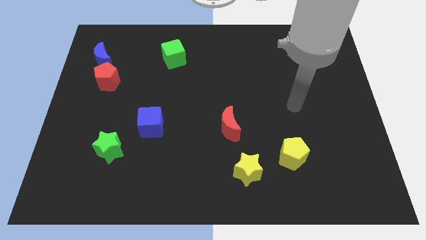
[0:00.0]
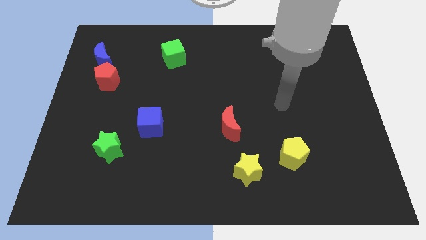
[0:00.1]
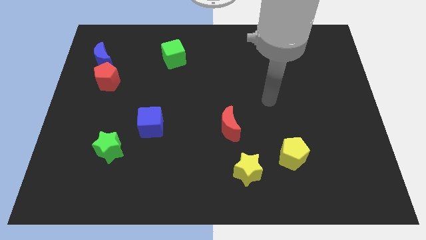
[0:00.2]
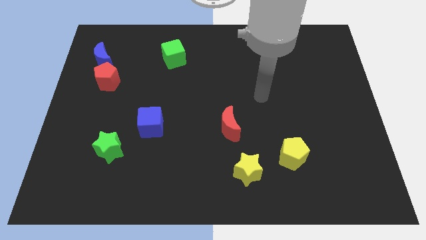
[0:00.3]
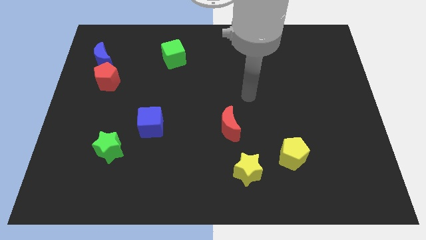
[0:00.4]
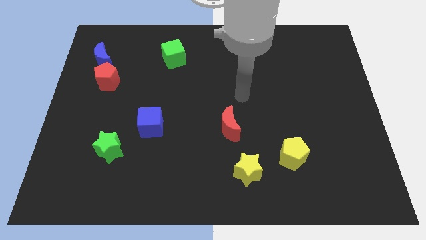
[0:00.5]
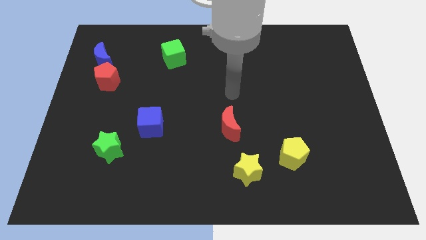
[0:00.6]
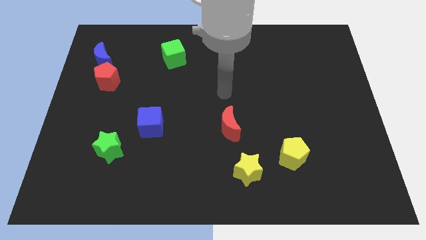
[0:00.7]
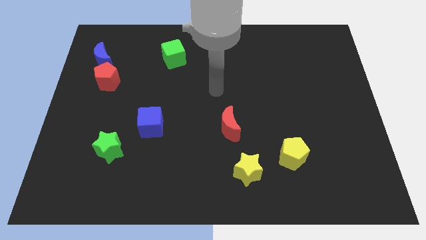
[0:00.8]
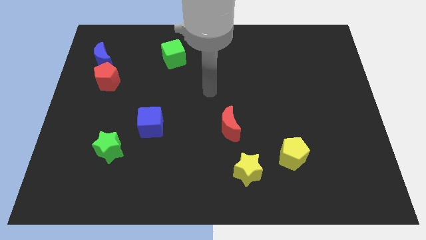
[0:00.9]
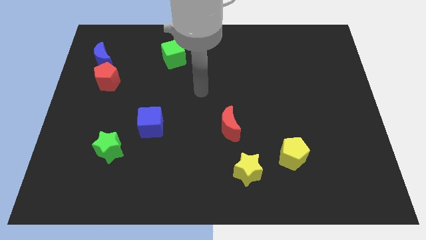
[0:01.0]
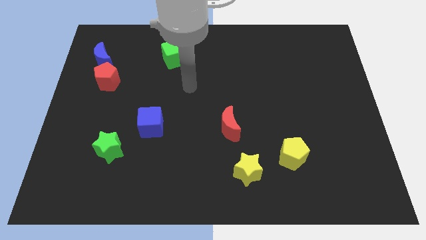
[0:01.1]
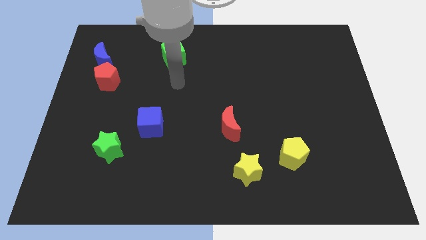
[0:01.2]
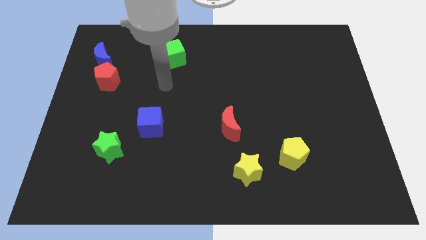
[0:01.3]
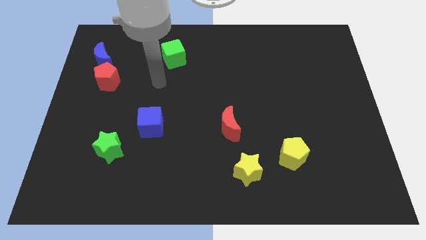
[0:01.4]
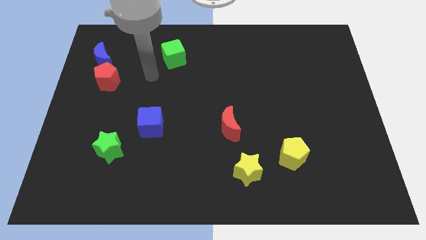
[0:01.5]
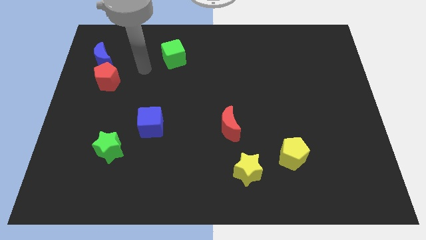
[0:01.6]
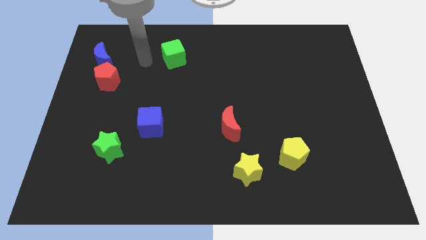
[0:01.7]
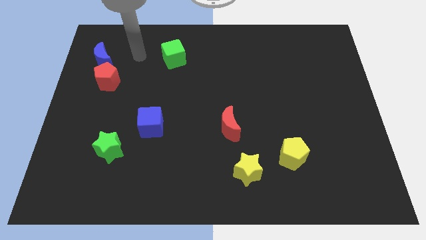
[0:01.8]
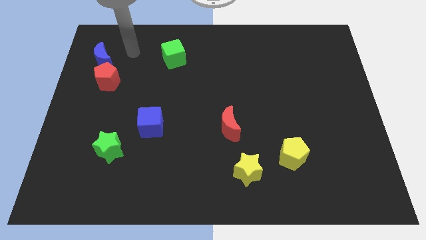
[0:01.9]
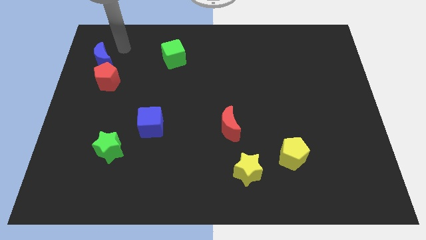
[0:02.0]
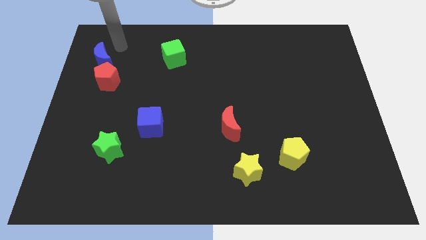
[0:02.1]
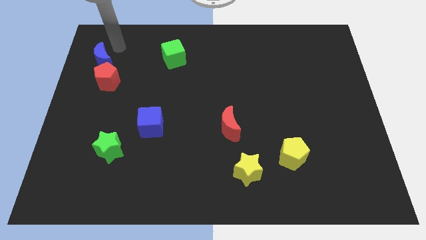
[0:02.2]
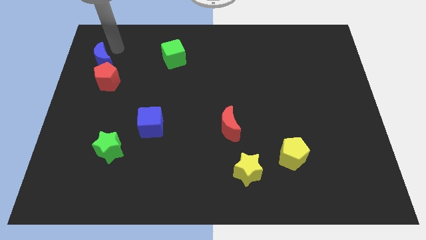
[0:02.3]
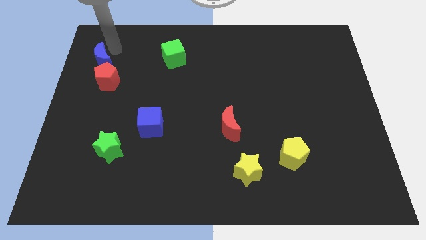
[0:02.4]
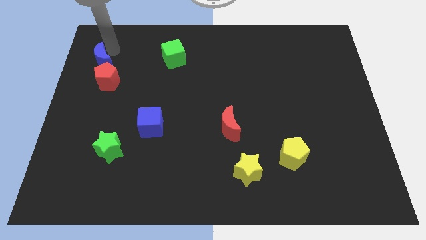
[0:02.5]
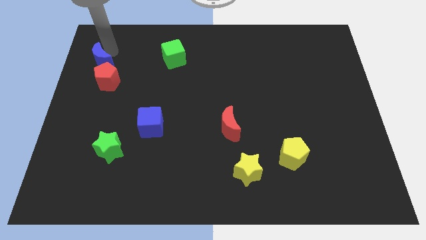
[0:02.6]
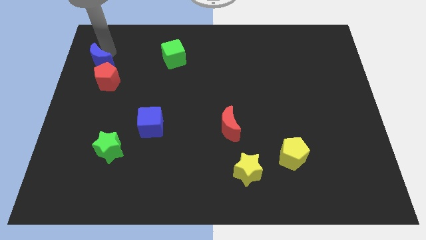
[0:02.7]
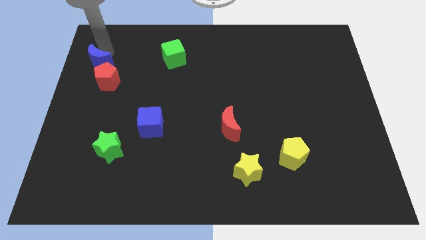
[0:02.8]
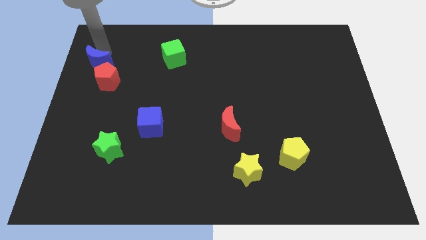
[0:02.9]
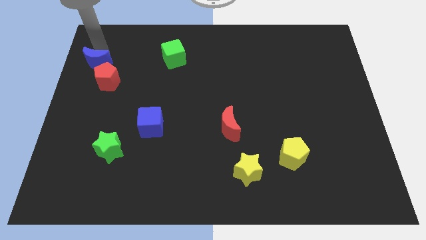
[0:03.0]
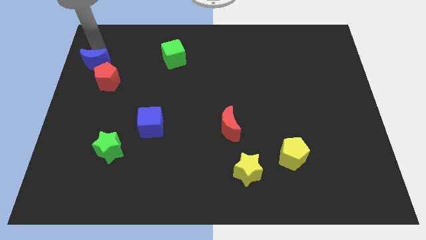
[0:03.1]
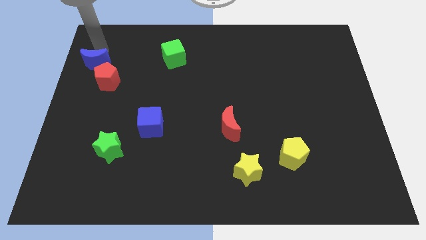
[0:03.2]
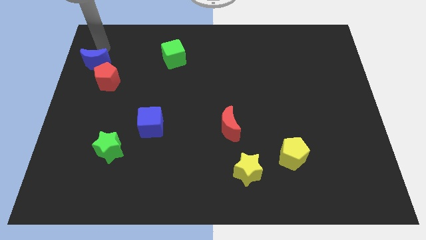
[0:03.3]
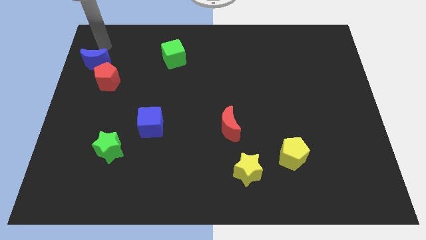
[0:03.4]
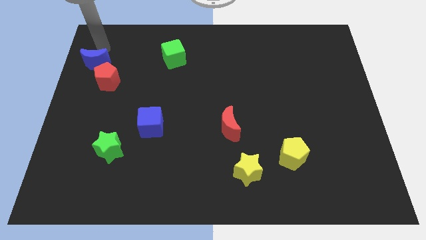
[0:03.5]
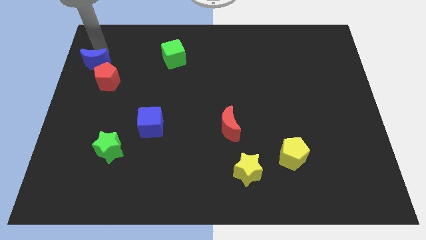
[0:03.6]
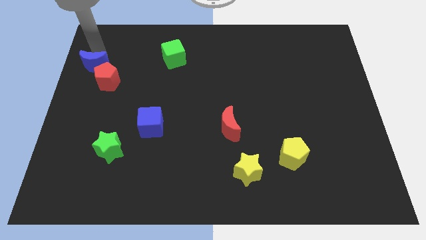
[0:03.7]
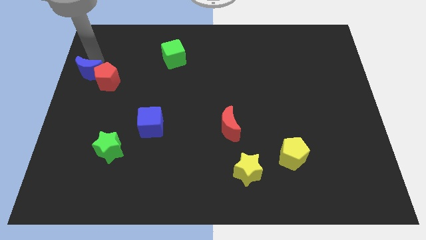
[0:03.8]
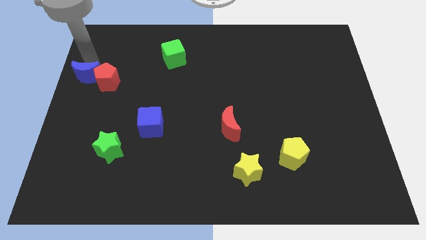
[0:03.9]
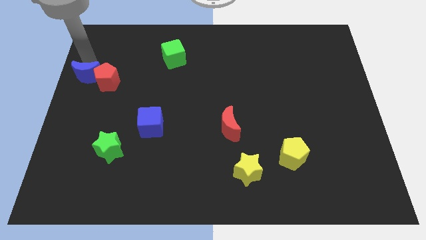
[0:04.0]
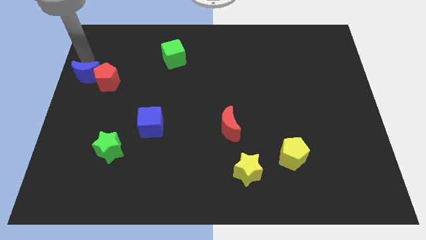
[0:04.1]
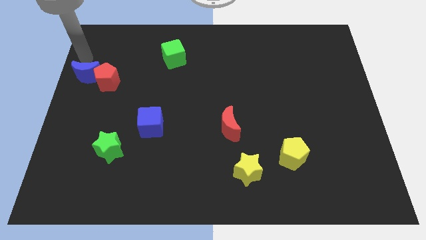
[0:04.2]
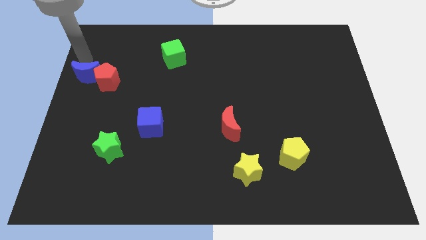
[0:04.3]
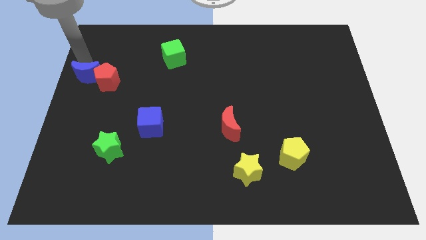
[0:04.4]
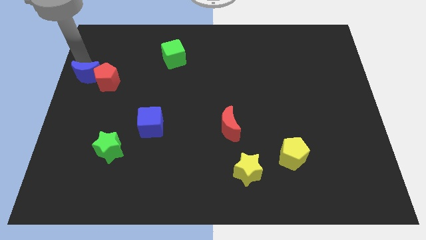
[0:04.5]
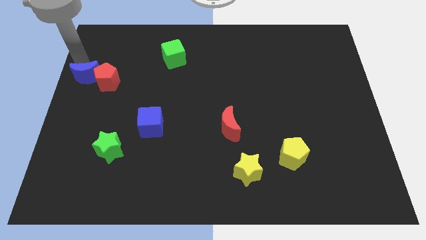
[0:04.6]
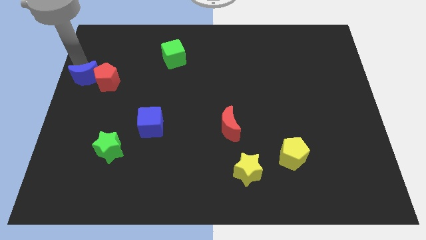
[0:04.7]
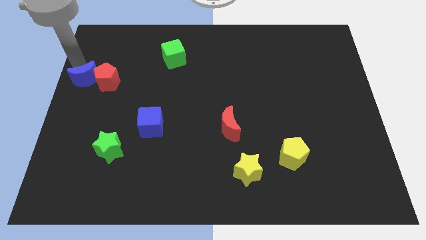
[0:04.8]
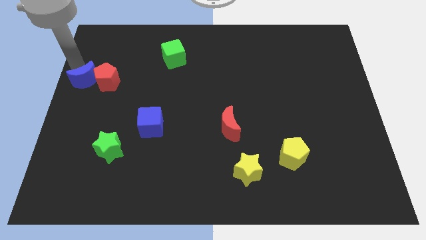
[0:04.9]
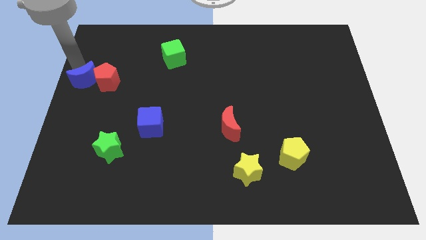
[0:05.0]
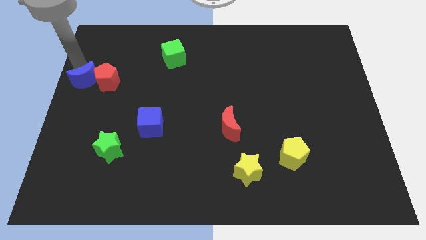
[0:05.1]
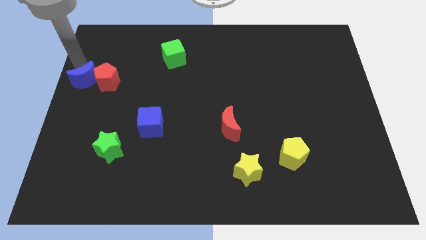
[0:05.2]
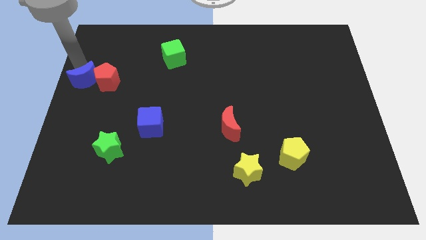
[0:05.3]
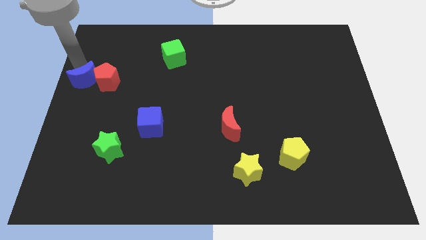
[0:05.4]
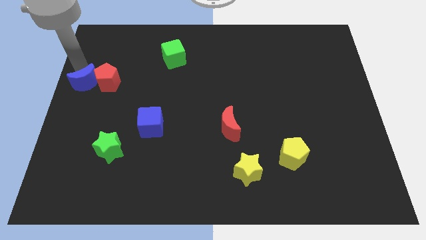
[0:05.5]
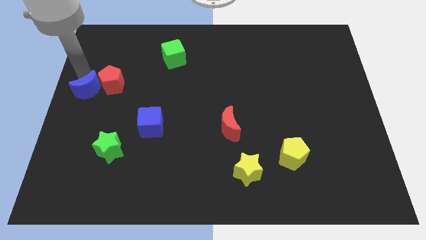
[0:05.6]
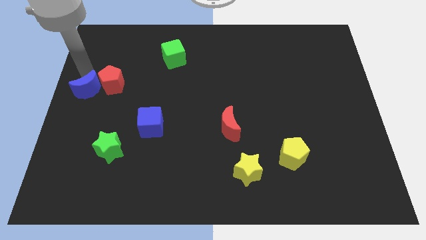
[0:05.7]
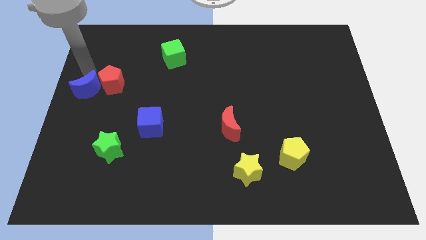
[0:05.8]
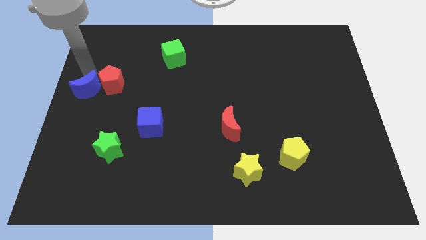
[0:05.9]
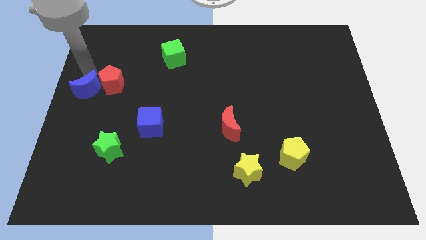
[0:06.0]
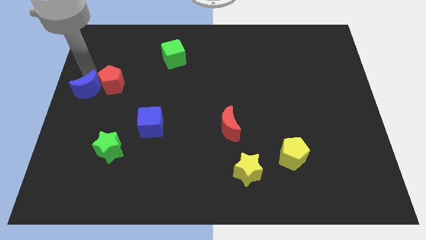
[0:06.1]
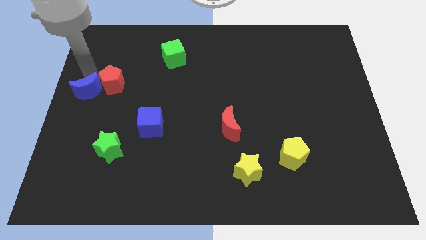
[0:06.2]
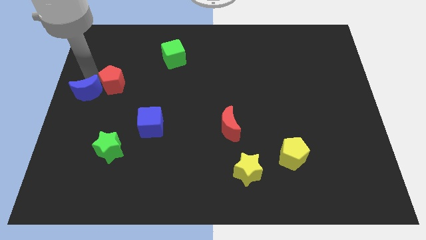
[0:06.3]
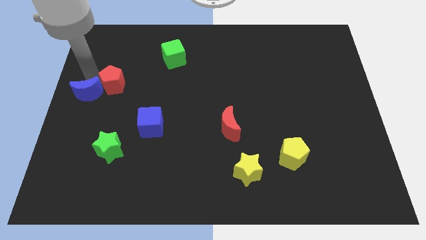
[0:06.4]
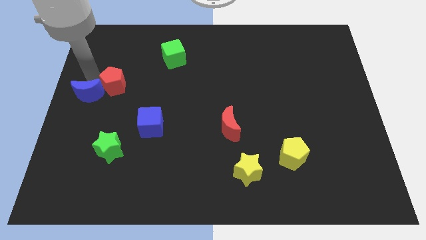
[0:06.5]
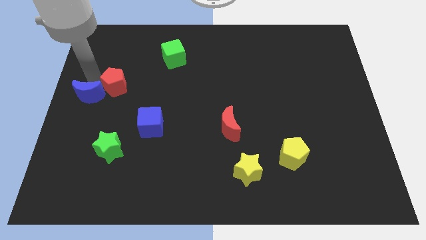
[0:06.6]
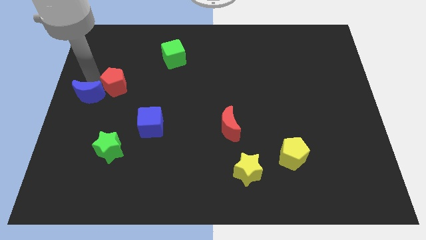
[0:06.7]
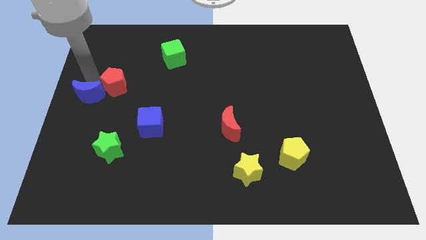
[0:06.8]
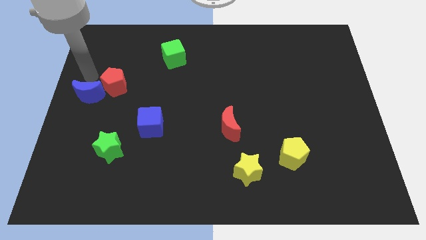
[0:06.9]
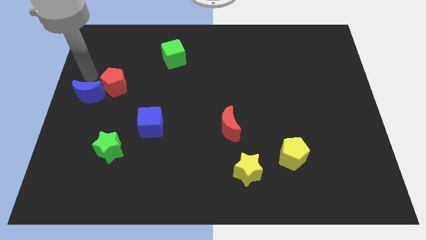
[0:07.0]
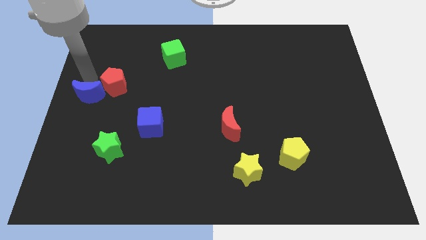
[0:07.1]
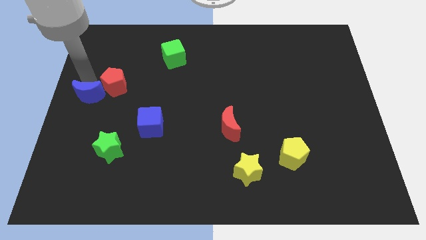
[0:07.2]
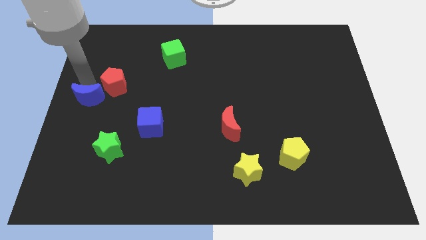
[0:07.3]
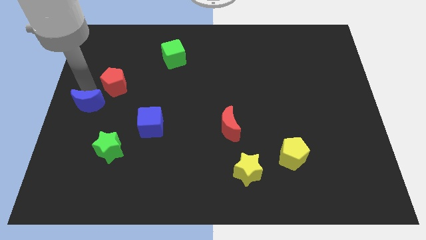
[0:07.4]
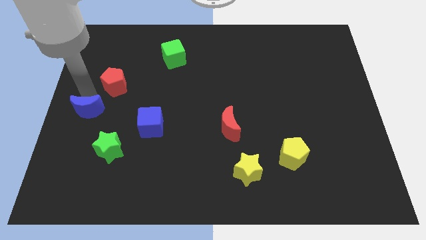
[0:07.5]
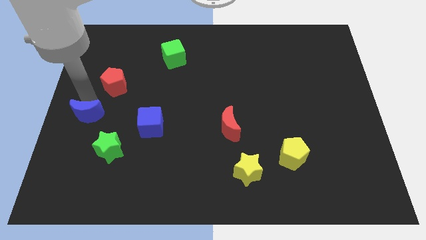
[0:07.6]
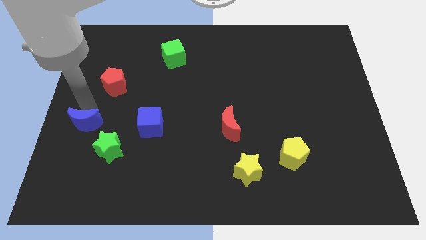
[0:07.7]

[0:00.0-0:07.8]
push the blue moon down

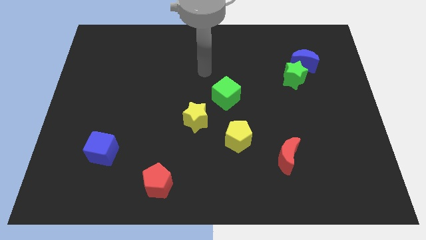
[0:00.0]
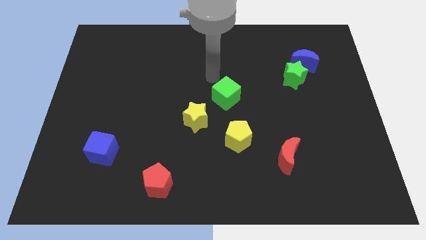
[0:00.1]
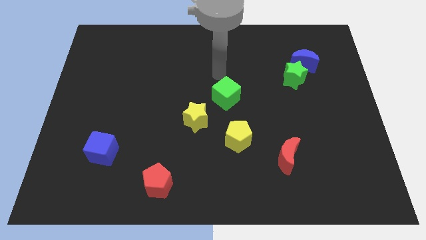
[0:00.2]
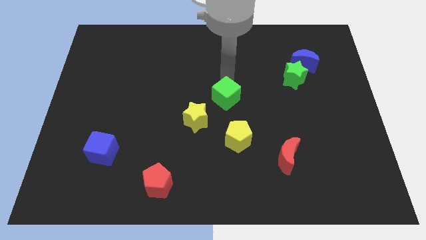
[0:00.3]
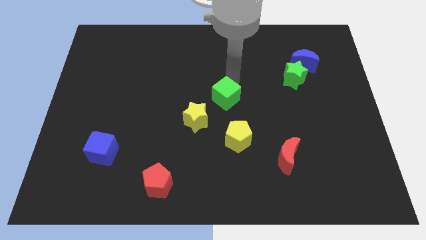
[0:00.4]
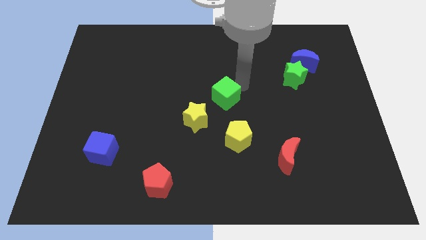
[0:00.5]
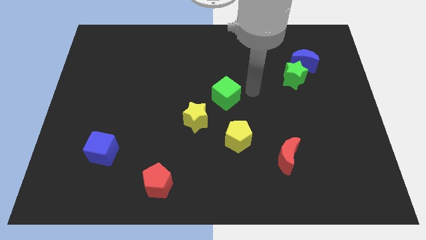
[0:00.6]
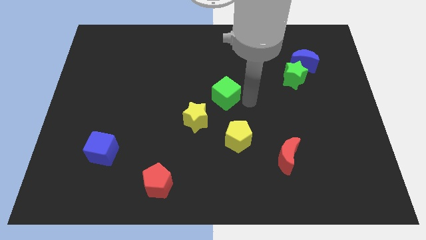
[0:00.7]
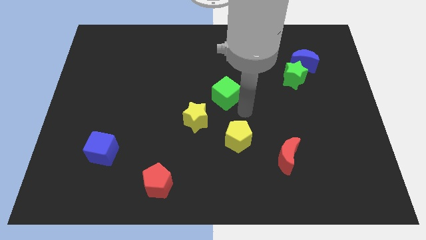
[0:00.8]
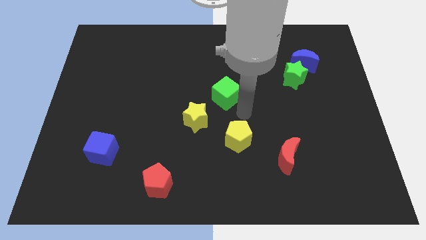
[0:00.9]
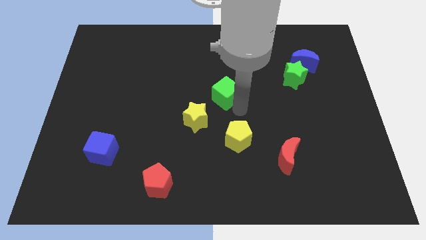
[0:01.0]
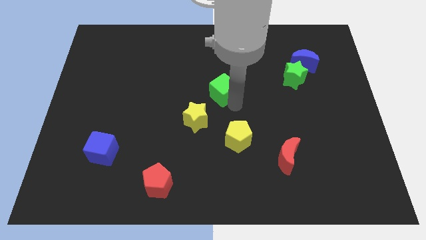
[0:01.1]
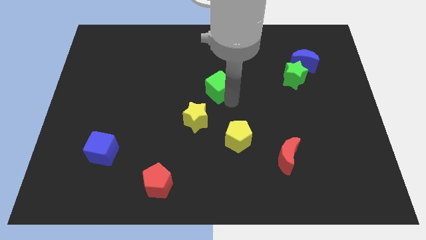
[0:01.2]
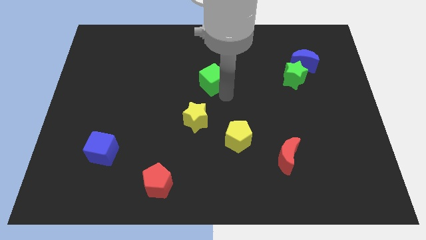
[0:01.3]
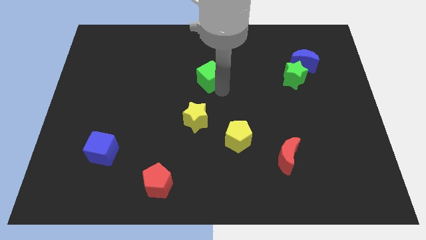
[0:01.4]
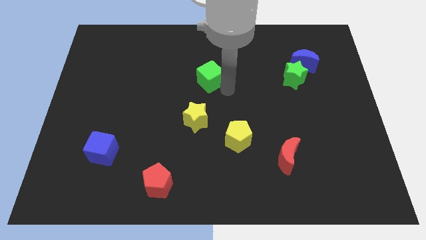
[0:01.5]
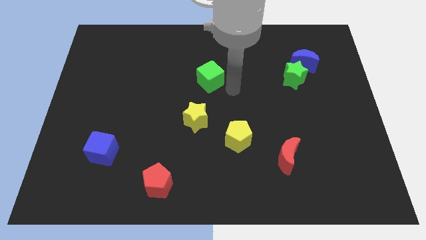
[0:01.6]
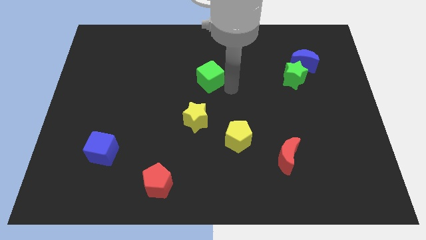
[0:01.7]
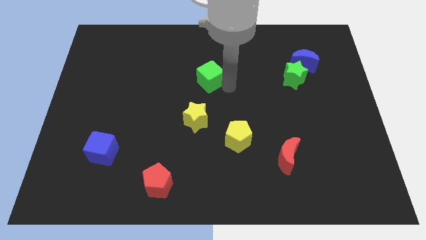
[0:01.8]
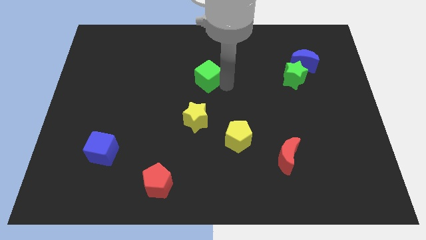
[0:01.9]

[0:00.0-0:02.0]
slide the green cube diagonally up and to the left slightly
